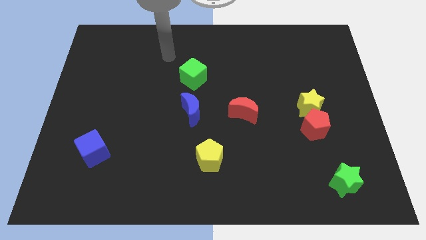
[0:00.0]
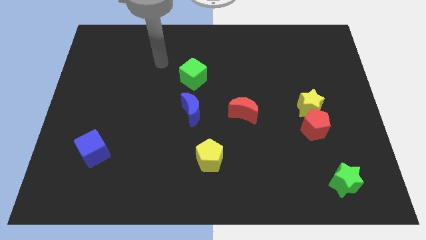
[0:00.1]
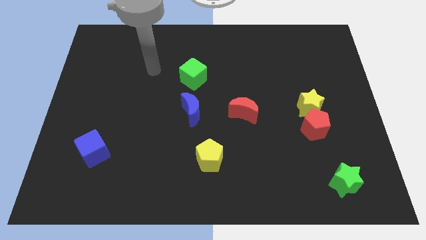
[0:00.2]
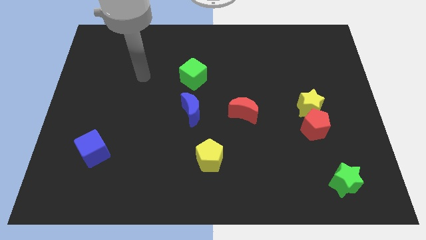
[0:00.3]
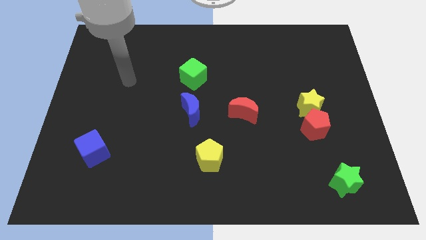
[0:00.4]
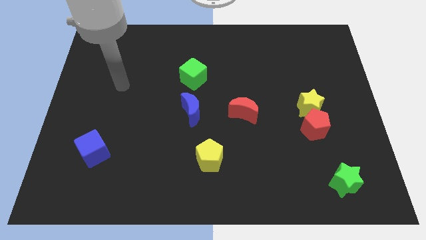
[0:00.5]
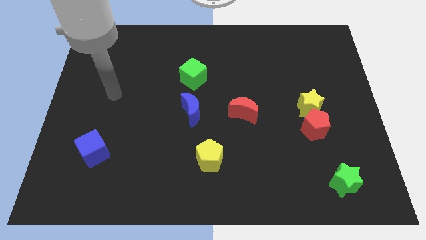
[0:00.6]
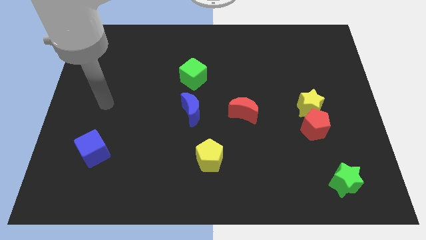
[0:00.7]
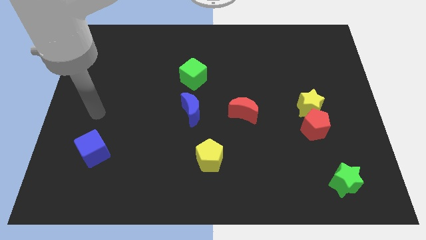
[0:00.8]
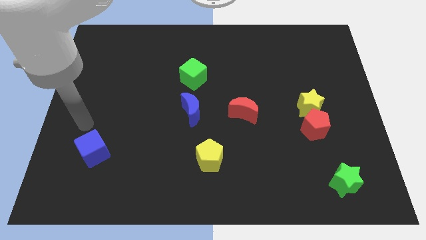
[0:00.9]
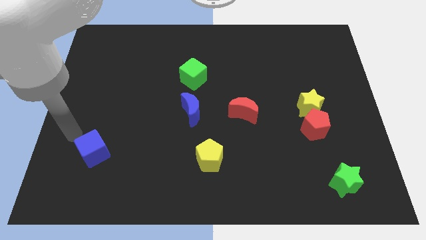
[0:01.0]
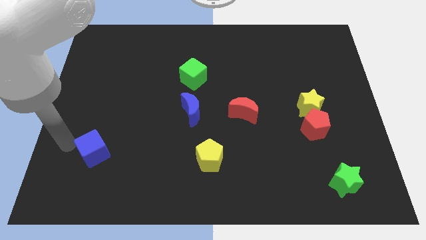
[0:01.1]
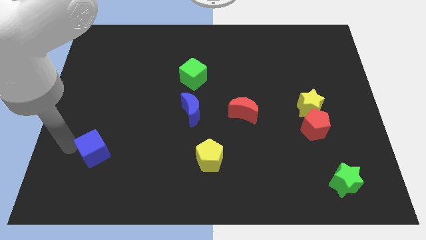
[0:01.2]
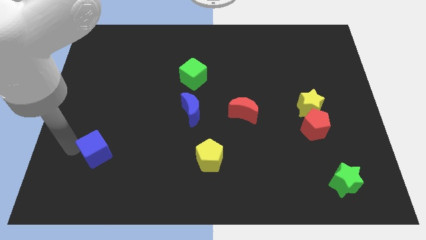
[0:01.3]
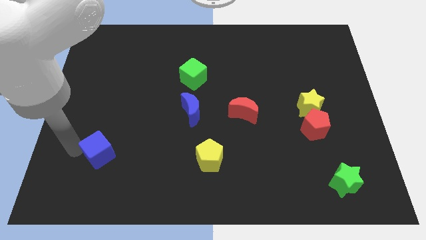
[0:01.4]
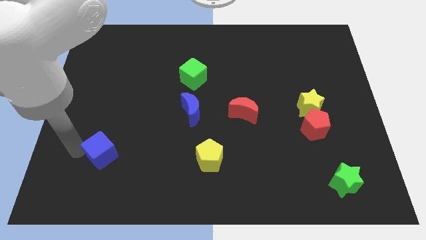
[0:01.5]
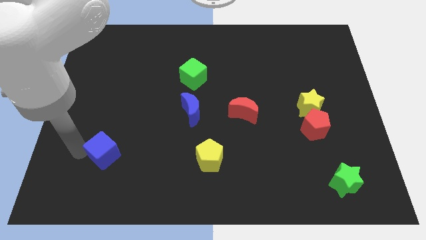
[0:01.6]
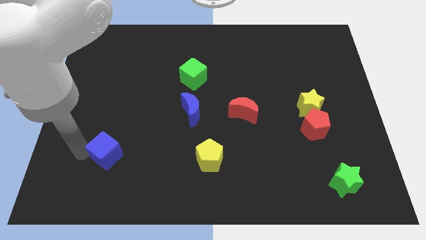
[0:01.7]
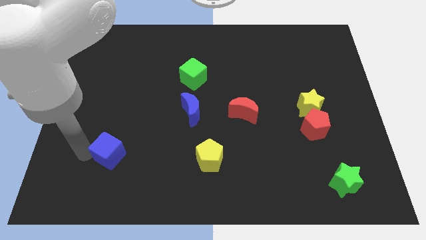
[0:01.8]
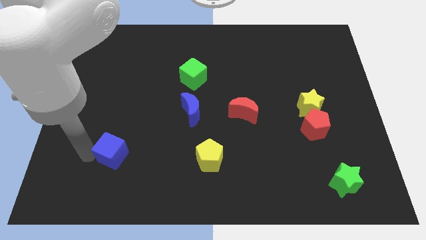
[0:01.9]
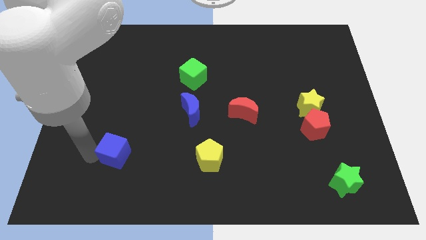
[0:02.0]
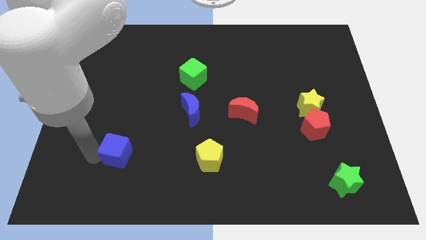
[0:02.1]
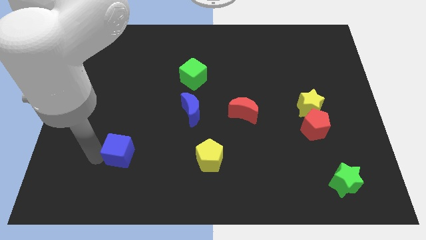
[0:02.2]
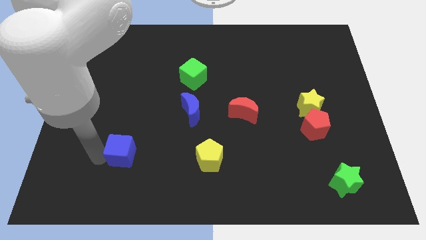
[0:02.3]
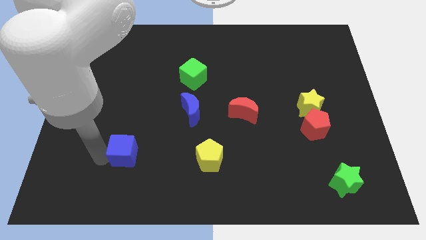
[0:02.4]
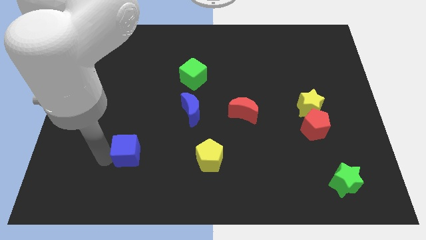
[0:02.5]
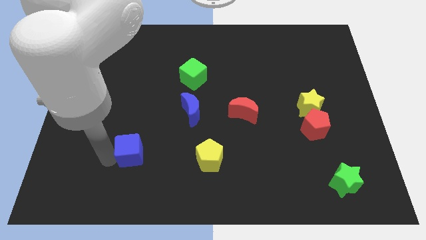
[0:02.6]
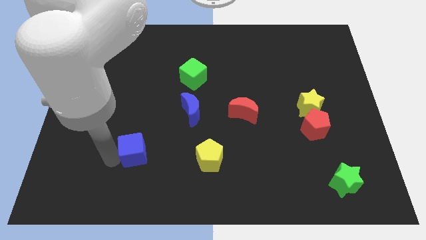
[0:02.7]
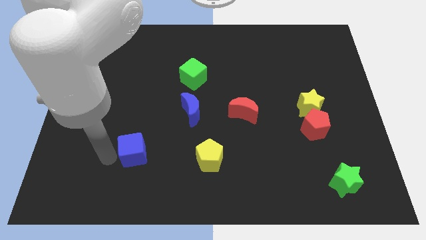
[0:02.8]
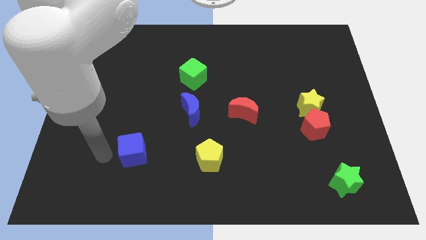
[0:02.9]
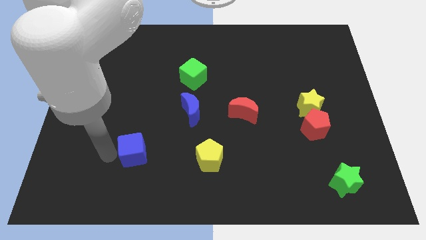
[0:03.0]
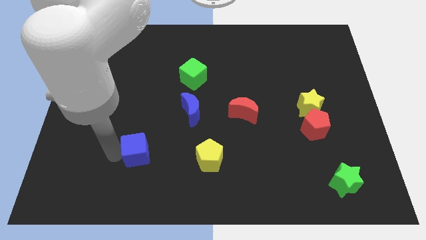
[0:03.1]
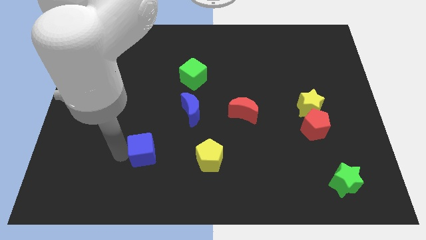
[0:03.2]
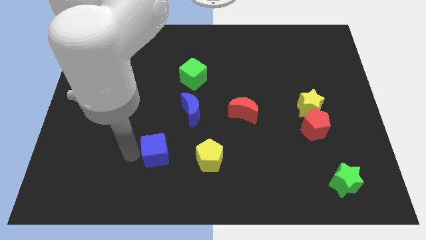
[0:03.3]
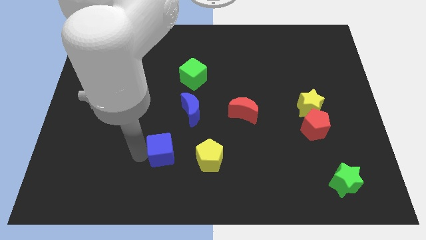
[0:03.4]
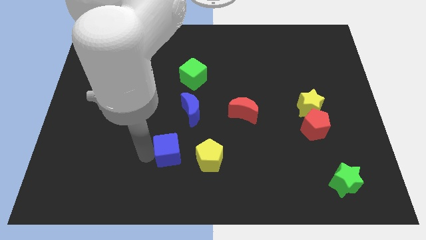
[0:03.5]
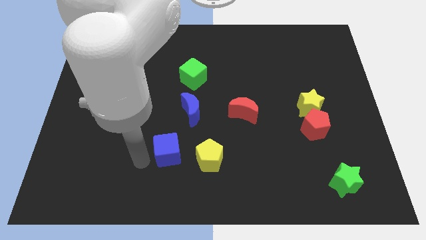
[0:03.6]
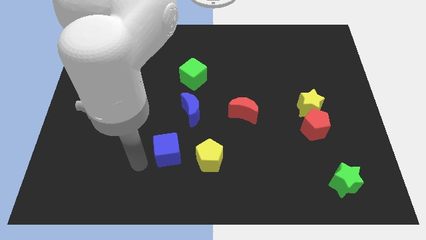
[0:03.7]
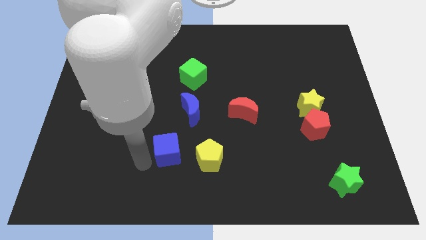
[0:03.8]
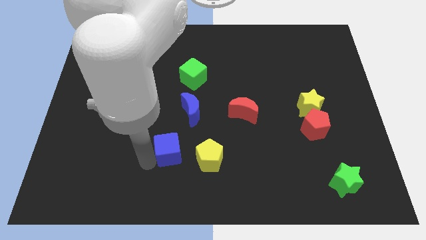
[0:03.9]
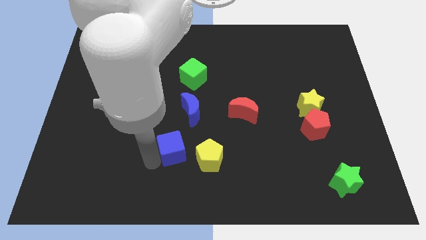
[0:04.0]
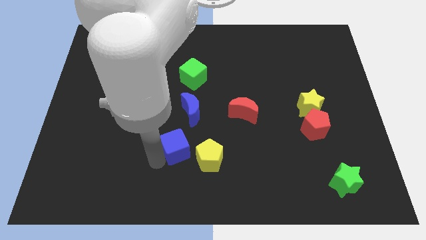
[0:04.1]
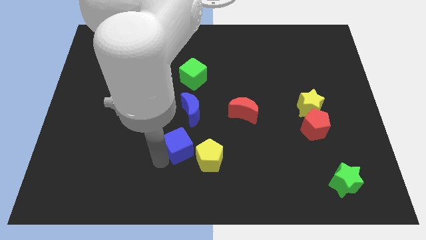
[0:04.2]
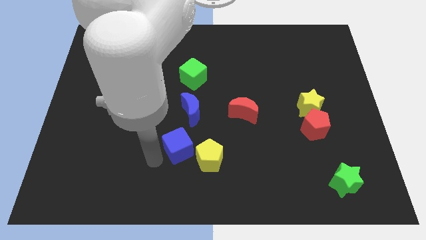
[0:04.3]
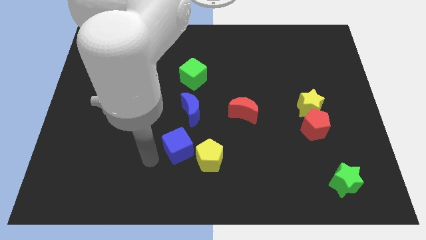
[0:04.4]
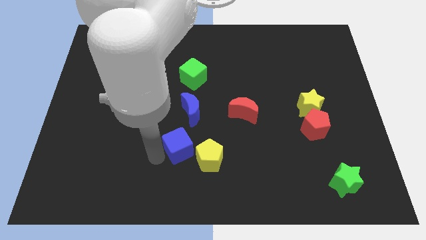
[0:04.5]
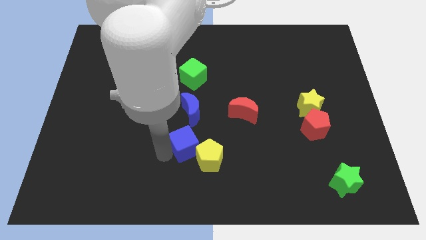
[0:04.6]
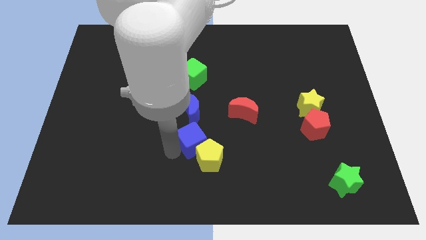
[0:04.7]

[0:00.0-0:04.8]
slide the blue cube to the right

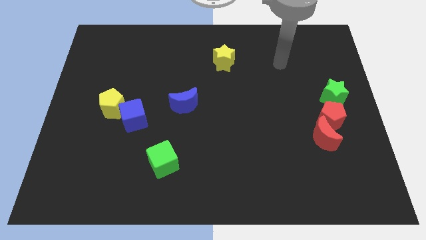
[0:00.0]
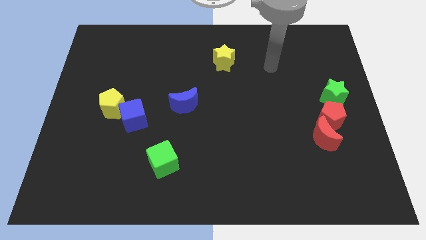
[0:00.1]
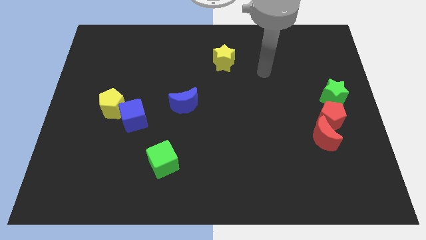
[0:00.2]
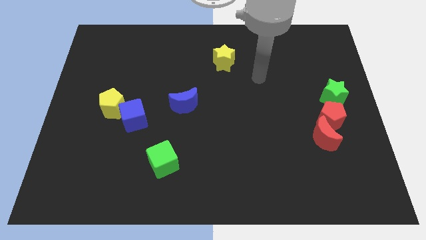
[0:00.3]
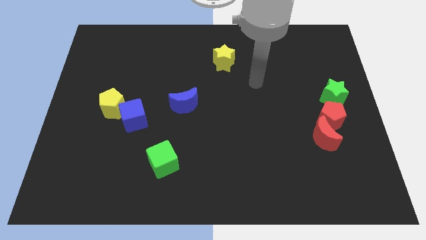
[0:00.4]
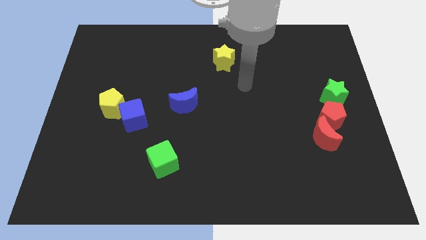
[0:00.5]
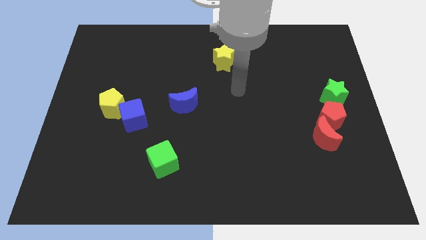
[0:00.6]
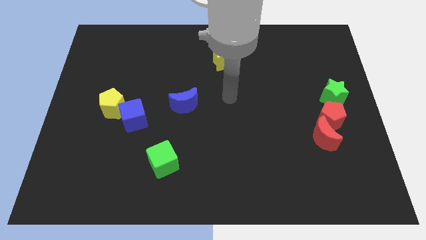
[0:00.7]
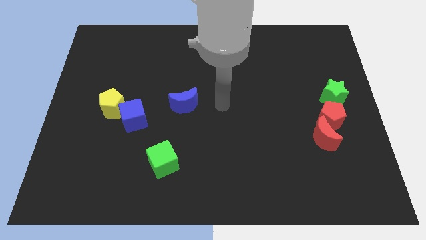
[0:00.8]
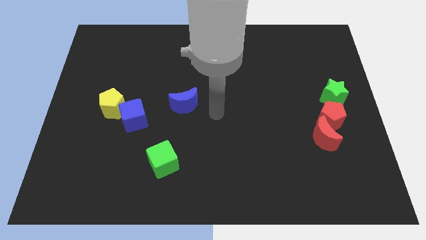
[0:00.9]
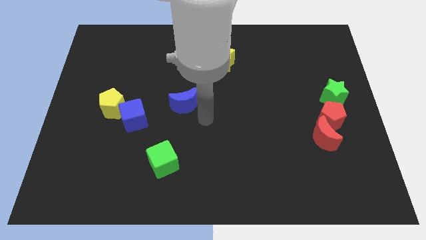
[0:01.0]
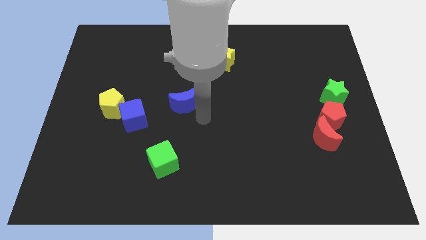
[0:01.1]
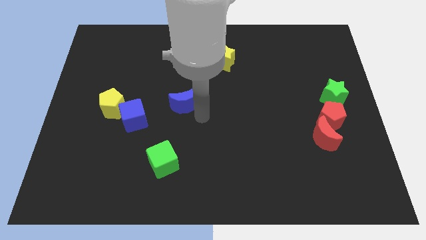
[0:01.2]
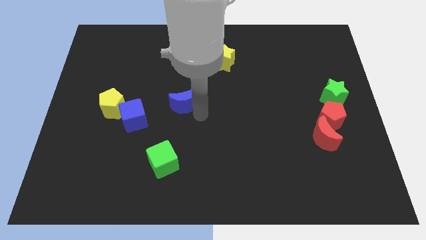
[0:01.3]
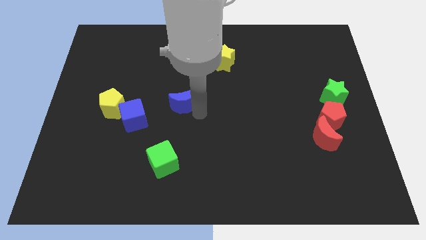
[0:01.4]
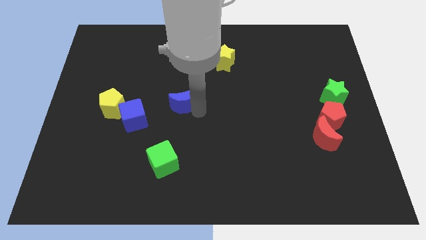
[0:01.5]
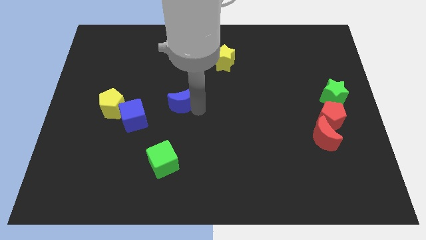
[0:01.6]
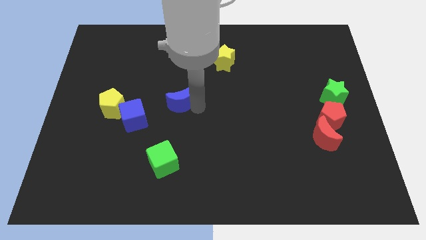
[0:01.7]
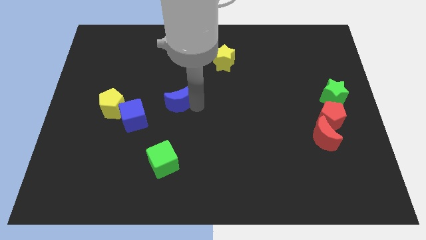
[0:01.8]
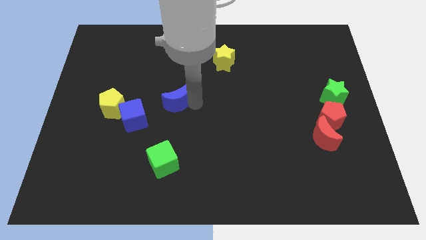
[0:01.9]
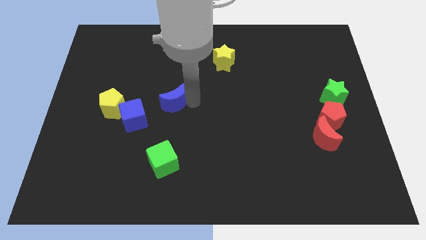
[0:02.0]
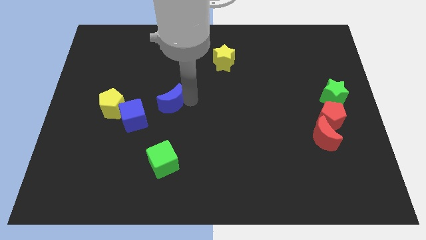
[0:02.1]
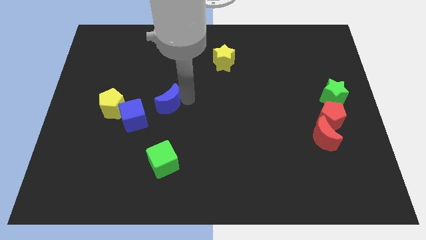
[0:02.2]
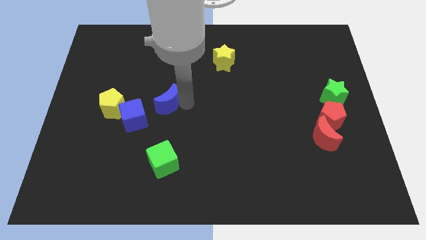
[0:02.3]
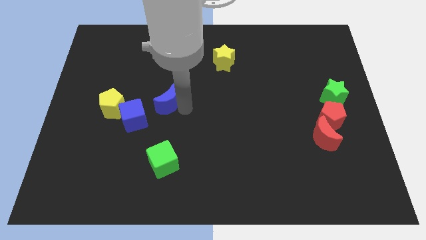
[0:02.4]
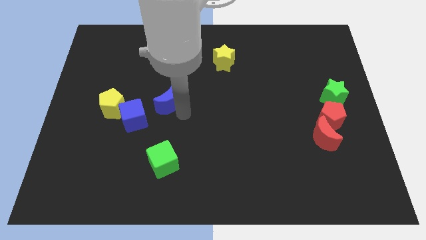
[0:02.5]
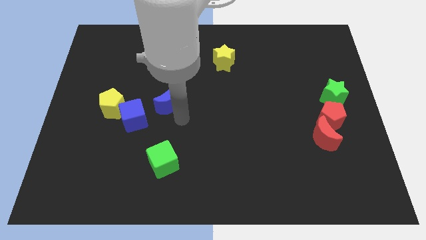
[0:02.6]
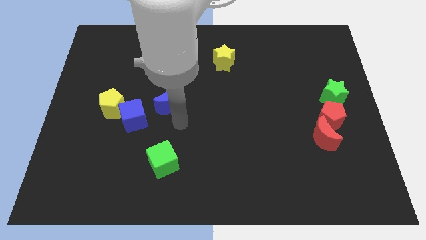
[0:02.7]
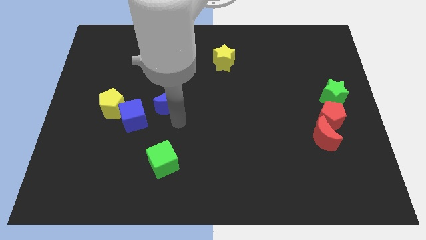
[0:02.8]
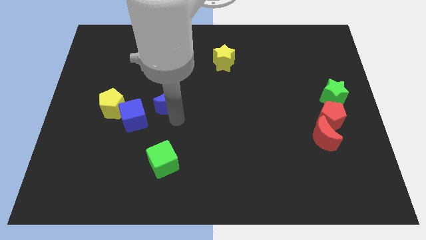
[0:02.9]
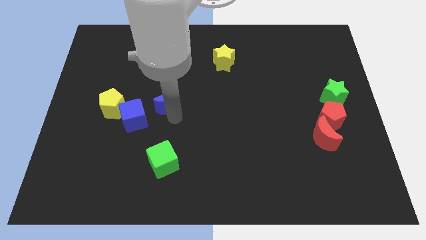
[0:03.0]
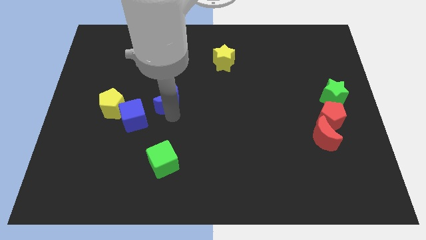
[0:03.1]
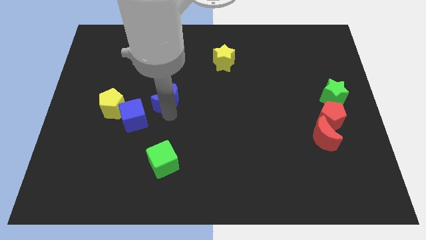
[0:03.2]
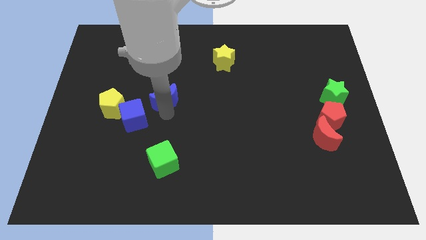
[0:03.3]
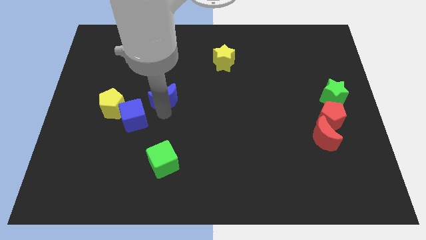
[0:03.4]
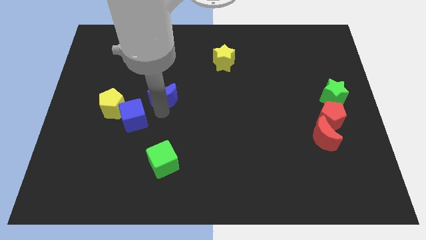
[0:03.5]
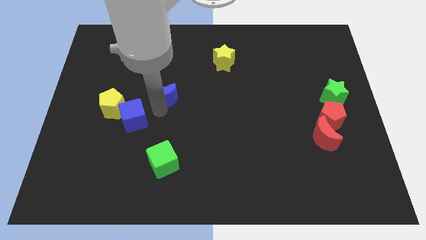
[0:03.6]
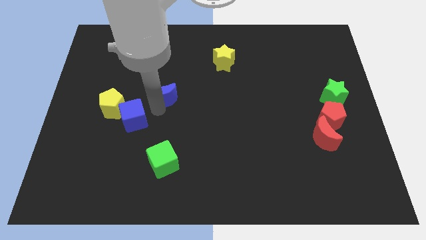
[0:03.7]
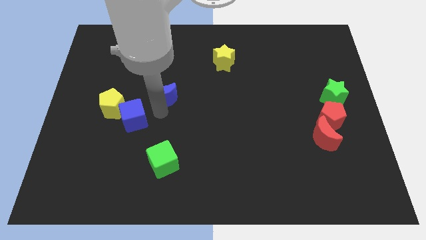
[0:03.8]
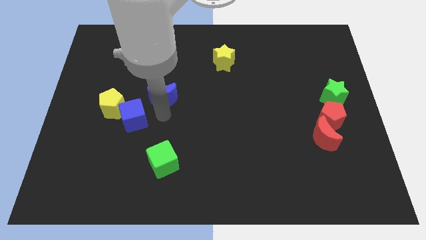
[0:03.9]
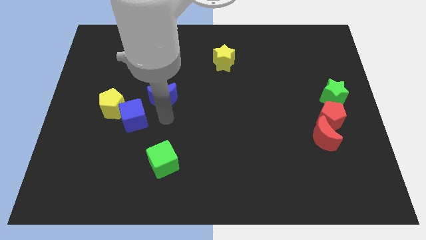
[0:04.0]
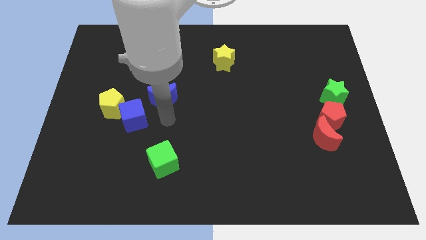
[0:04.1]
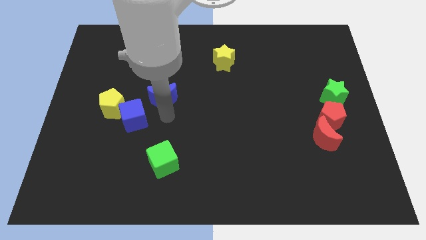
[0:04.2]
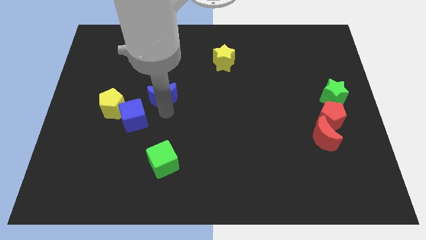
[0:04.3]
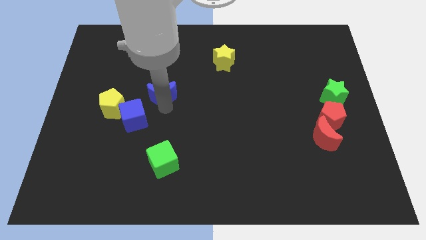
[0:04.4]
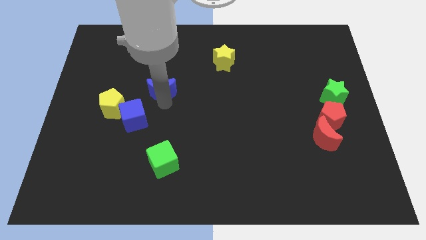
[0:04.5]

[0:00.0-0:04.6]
push the blue moon up and to the left slightly
